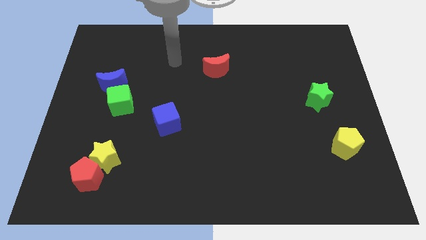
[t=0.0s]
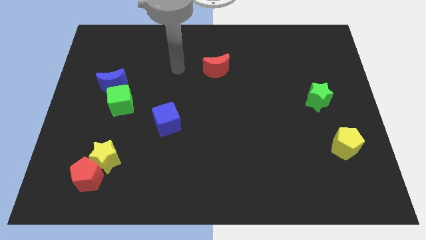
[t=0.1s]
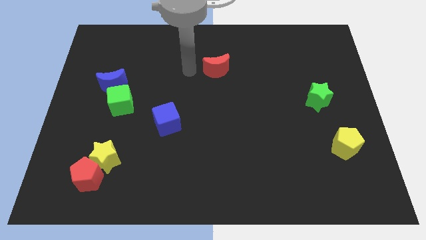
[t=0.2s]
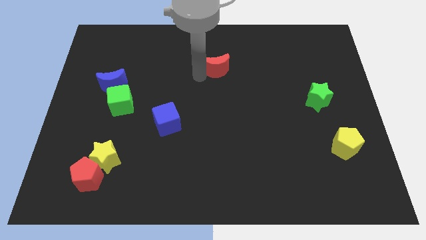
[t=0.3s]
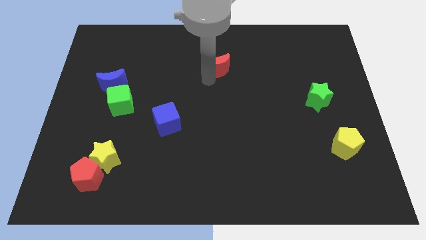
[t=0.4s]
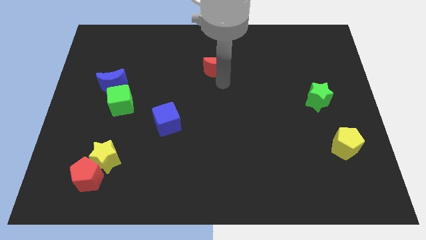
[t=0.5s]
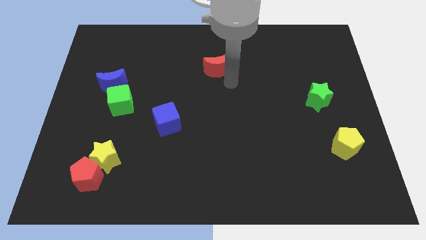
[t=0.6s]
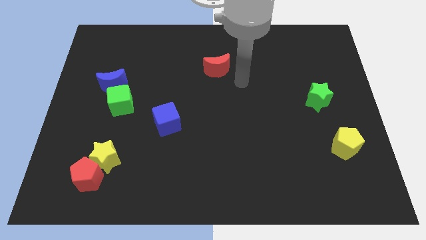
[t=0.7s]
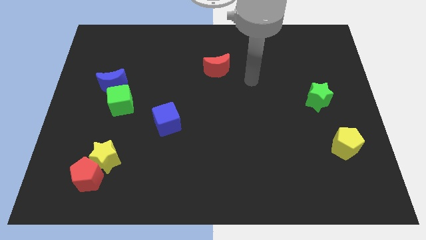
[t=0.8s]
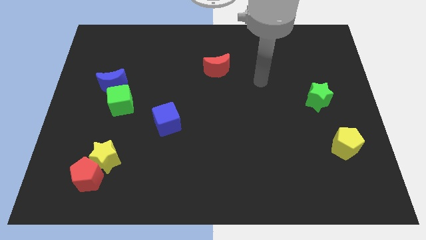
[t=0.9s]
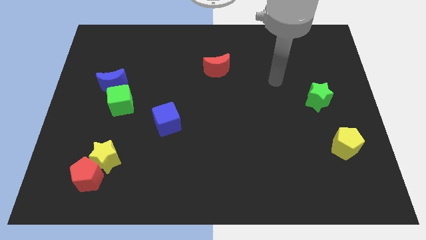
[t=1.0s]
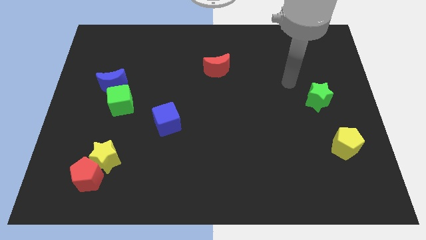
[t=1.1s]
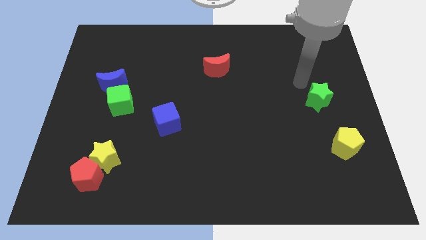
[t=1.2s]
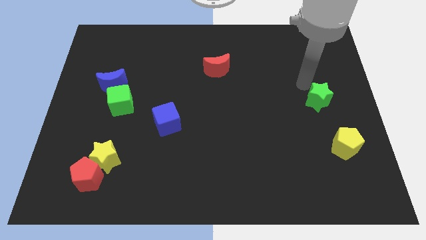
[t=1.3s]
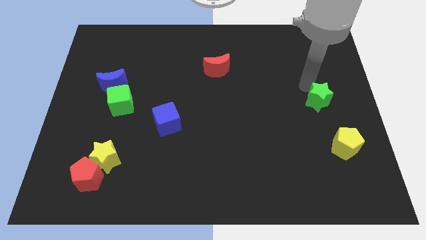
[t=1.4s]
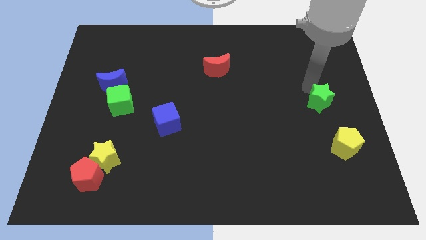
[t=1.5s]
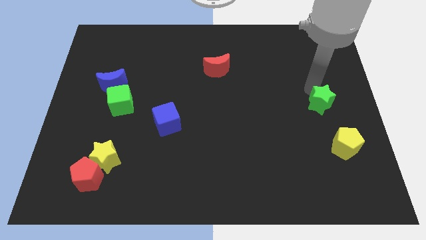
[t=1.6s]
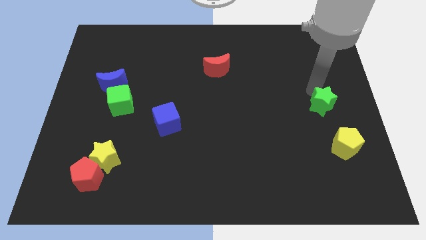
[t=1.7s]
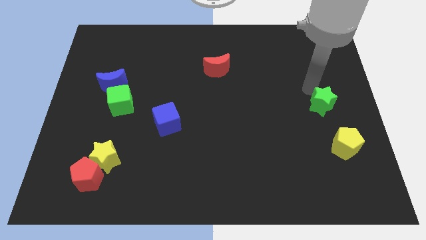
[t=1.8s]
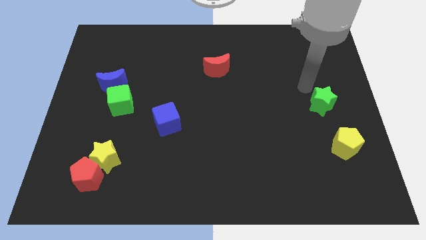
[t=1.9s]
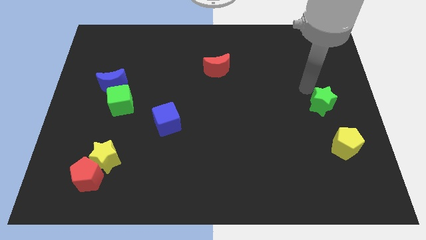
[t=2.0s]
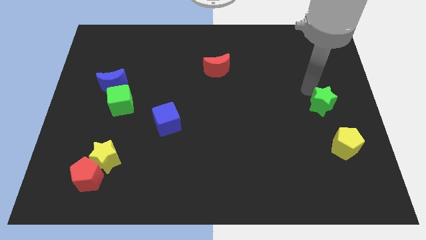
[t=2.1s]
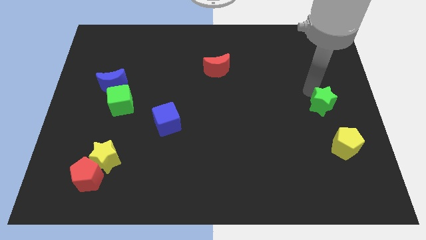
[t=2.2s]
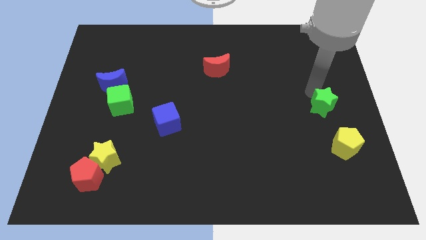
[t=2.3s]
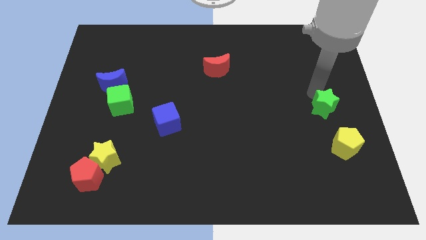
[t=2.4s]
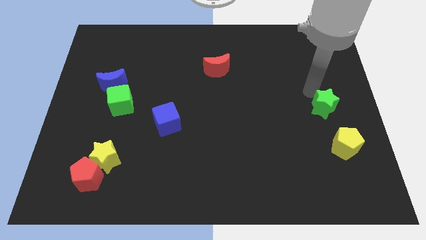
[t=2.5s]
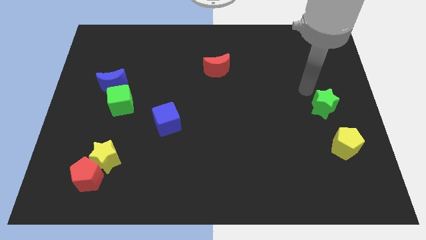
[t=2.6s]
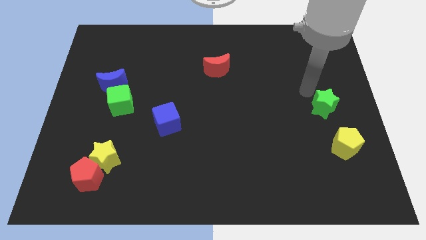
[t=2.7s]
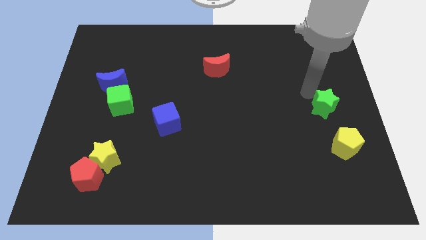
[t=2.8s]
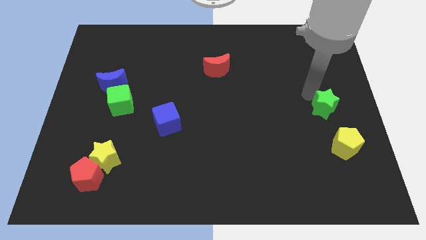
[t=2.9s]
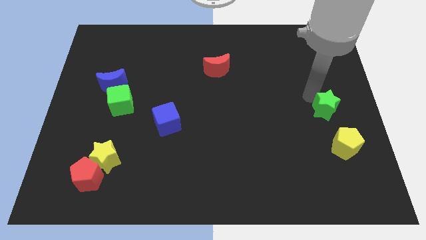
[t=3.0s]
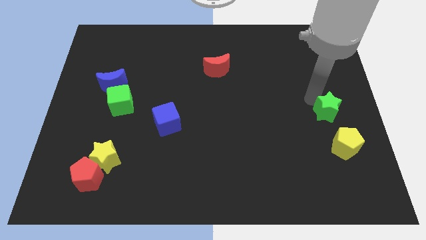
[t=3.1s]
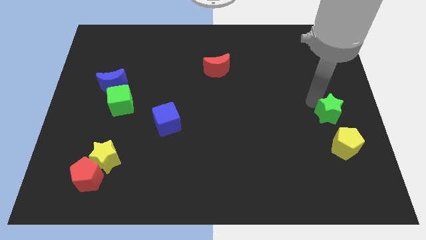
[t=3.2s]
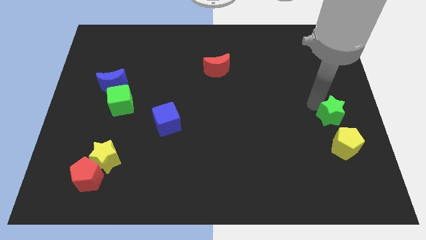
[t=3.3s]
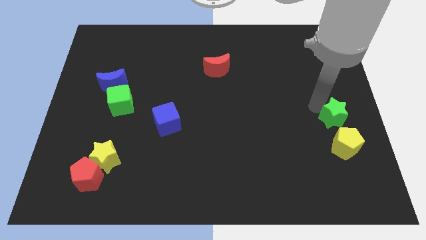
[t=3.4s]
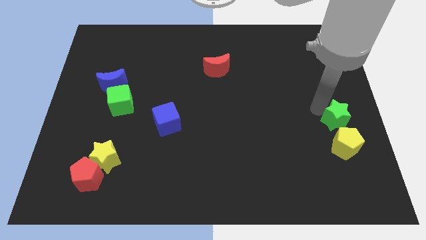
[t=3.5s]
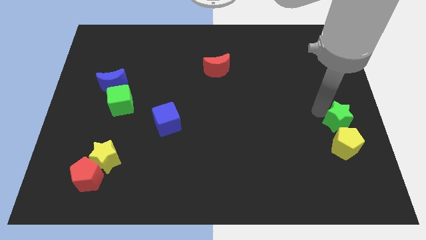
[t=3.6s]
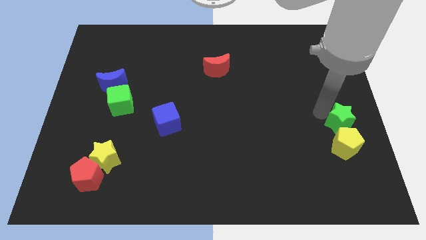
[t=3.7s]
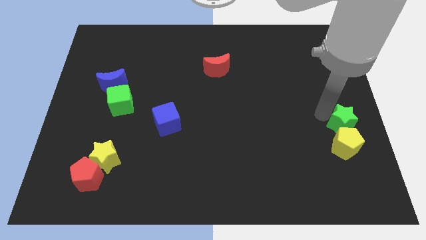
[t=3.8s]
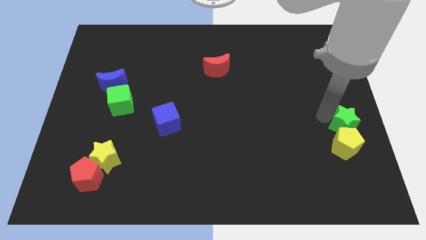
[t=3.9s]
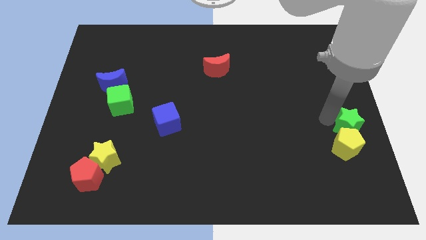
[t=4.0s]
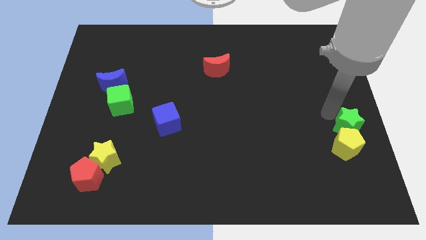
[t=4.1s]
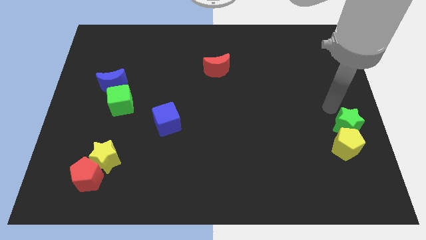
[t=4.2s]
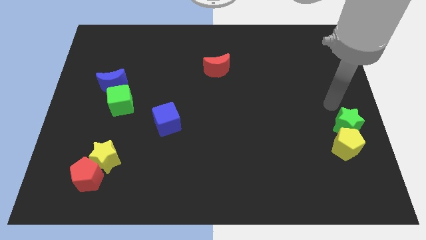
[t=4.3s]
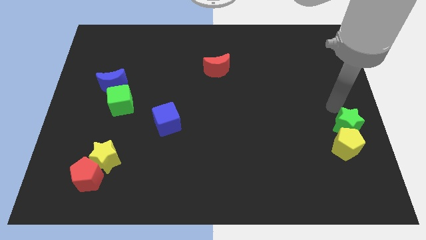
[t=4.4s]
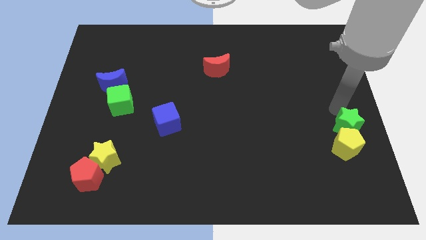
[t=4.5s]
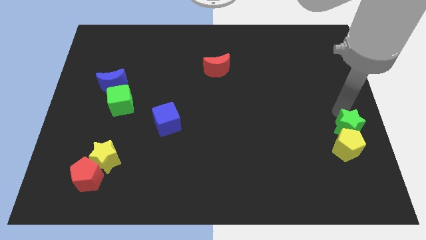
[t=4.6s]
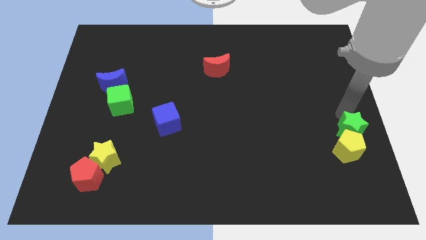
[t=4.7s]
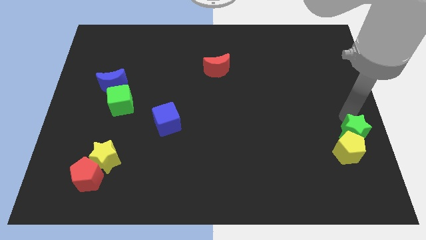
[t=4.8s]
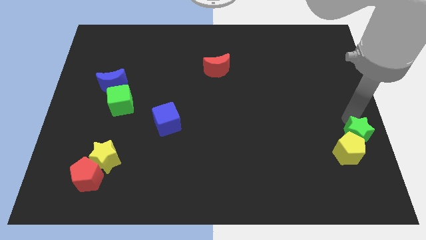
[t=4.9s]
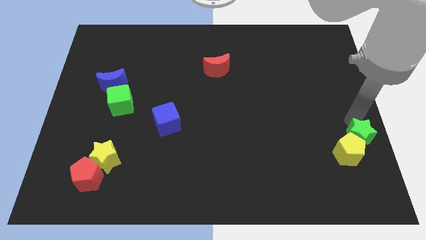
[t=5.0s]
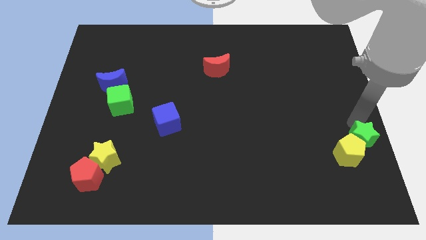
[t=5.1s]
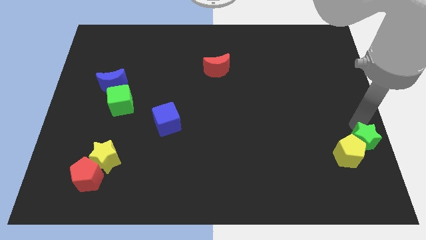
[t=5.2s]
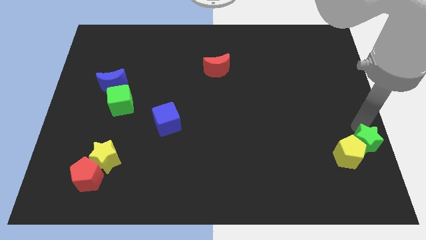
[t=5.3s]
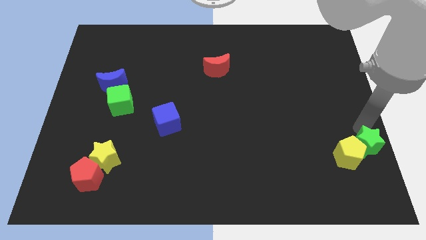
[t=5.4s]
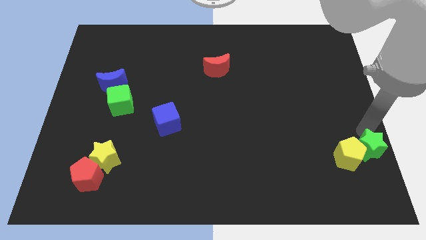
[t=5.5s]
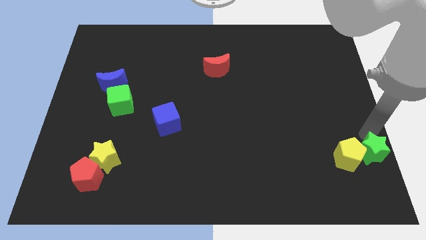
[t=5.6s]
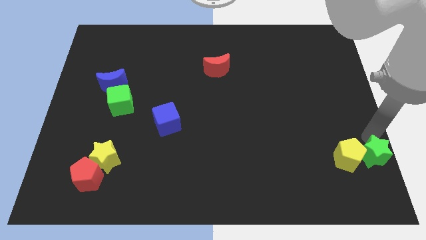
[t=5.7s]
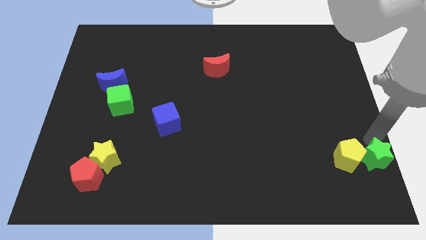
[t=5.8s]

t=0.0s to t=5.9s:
put the green star to the bottom right

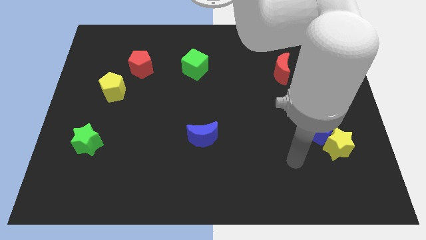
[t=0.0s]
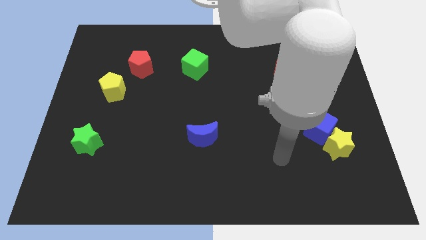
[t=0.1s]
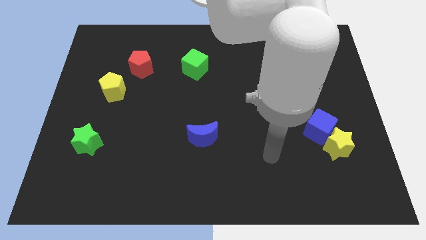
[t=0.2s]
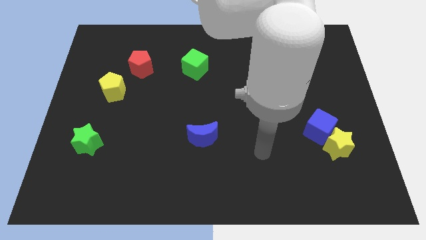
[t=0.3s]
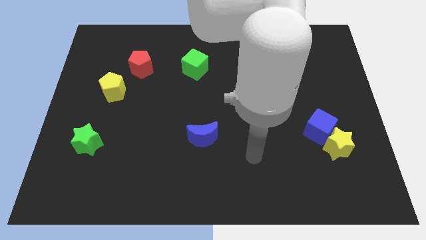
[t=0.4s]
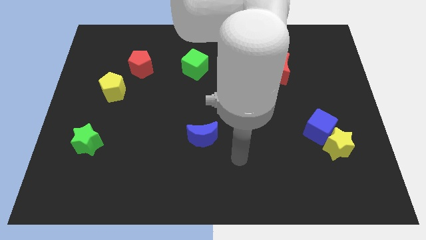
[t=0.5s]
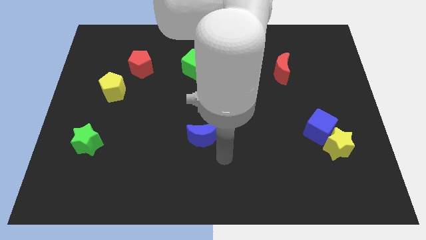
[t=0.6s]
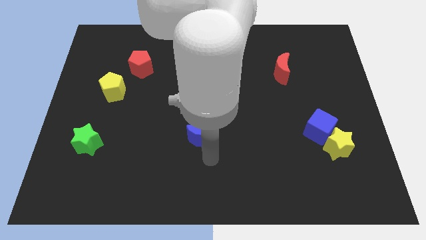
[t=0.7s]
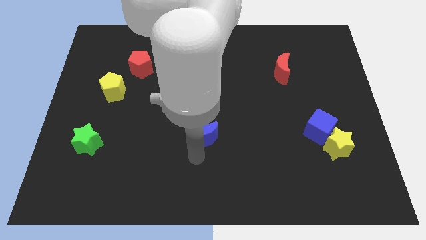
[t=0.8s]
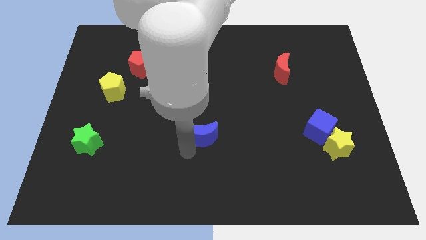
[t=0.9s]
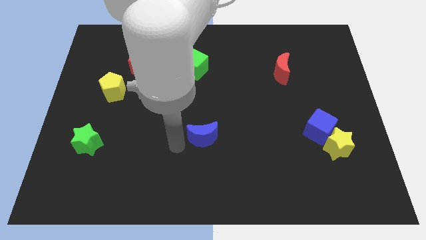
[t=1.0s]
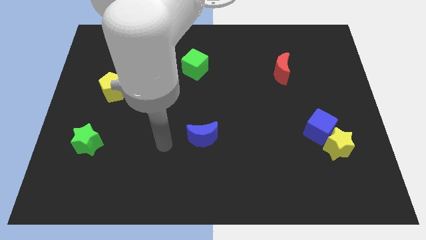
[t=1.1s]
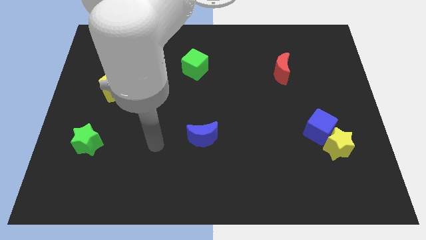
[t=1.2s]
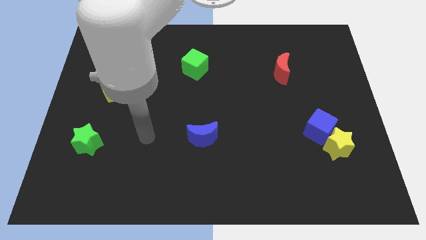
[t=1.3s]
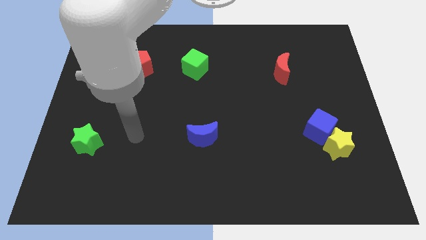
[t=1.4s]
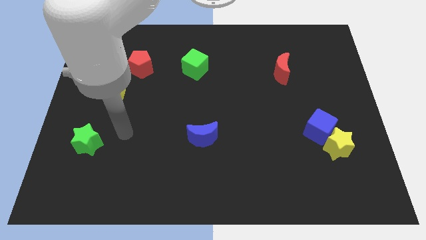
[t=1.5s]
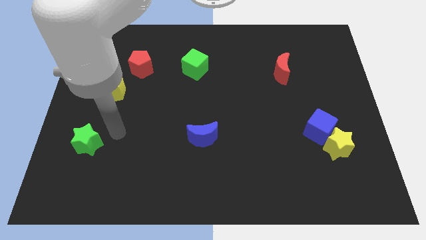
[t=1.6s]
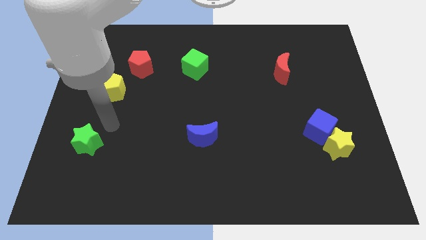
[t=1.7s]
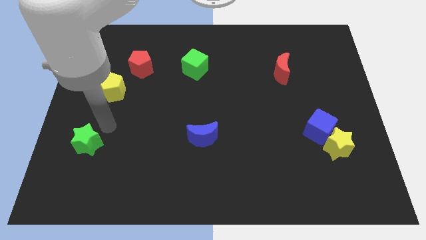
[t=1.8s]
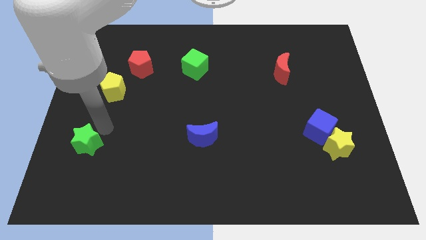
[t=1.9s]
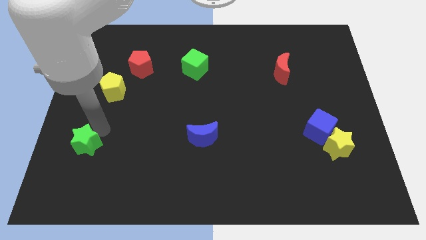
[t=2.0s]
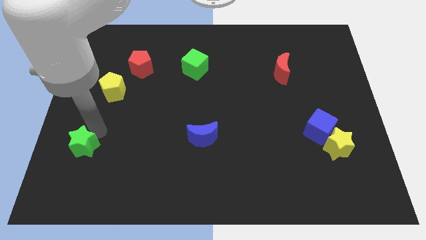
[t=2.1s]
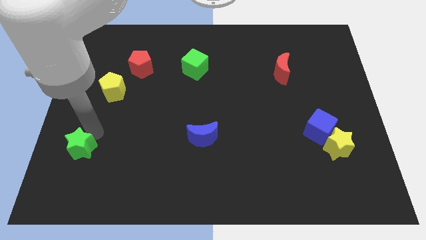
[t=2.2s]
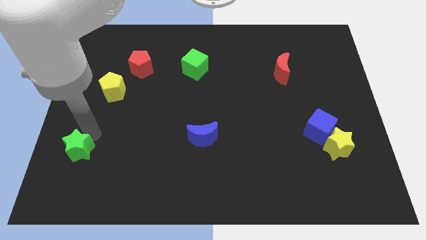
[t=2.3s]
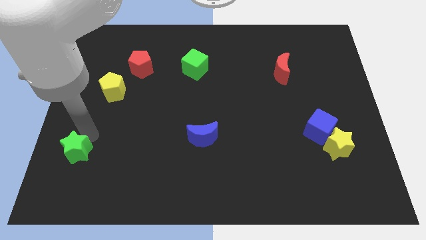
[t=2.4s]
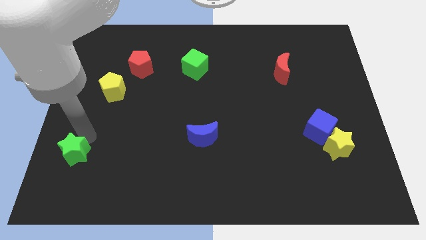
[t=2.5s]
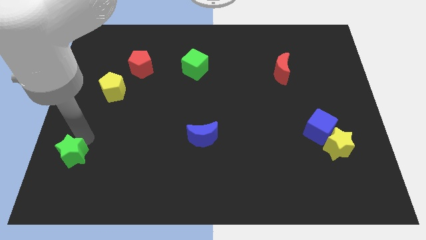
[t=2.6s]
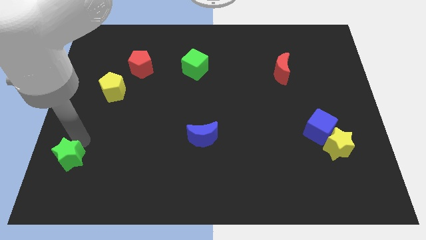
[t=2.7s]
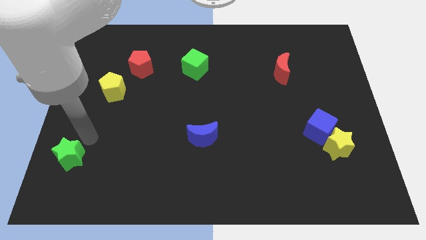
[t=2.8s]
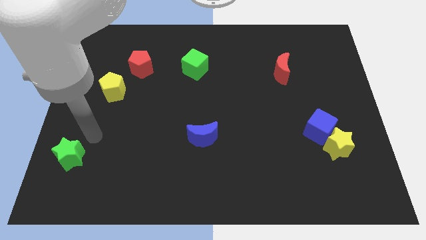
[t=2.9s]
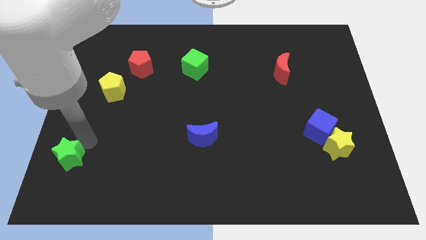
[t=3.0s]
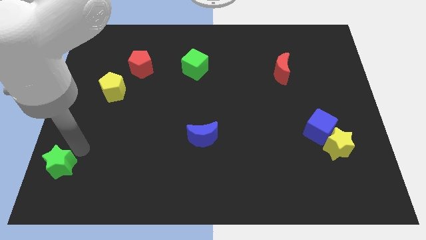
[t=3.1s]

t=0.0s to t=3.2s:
slide the green star to the bottom left of the board
